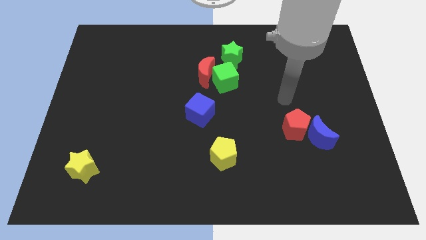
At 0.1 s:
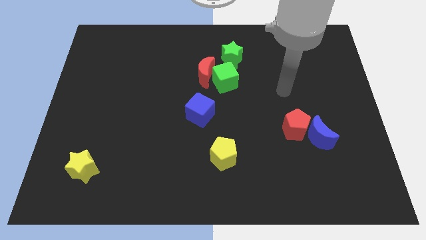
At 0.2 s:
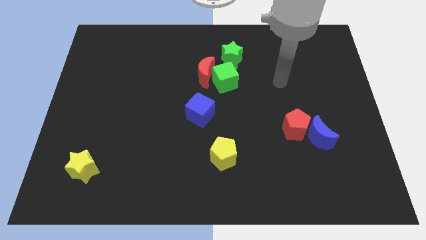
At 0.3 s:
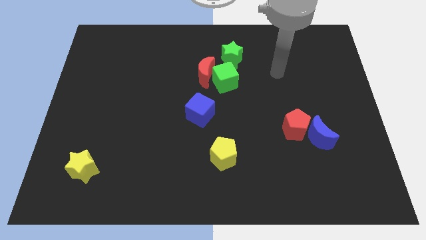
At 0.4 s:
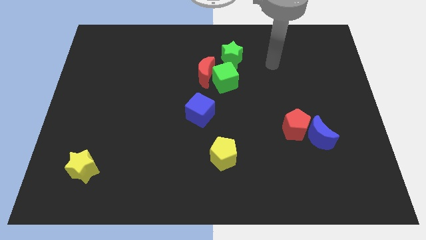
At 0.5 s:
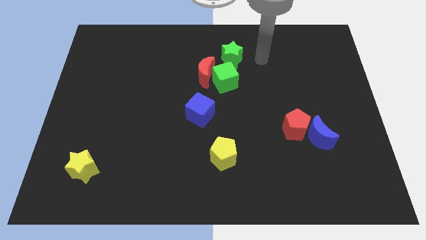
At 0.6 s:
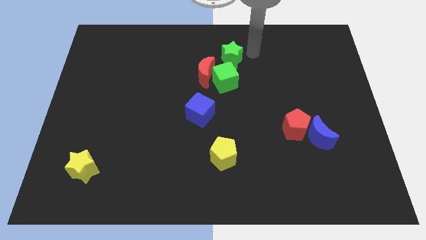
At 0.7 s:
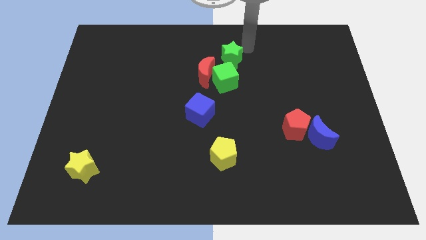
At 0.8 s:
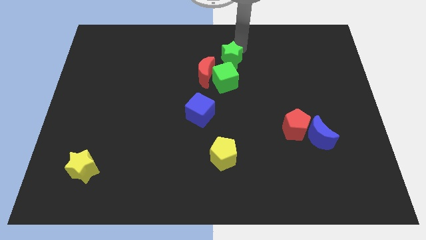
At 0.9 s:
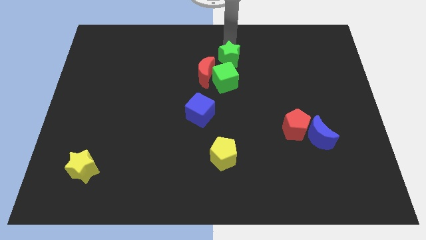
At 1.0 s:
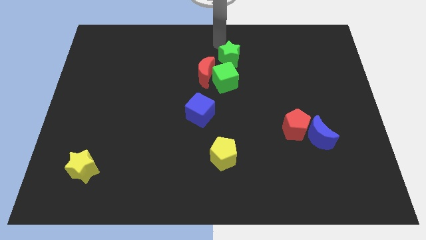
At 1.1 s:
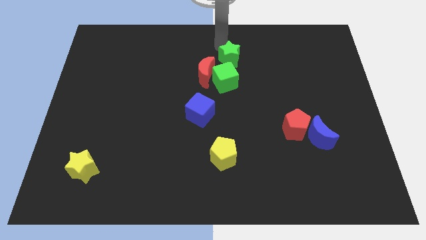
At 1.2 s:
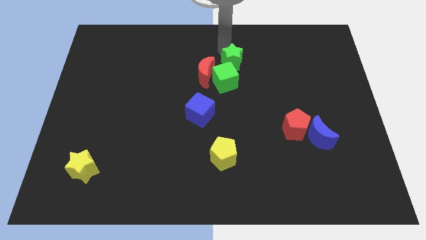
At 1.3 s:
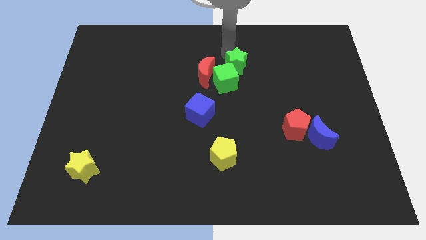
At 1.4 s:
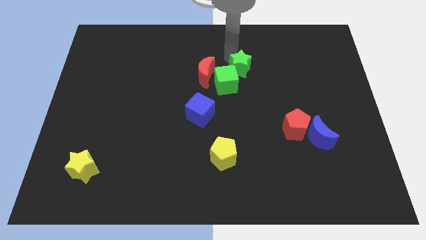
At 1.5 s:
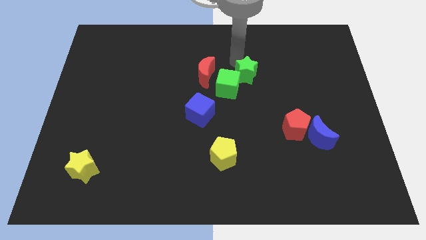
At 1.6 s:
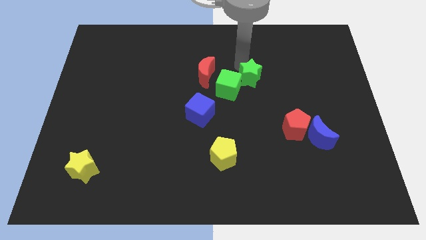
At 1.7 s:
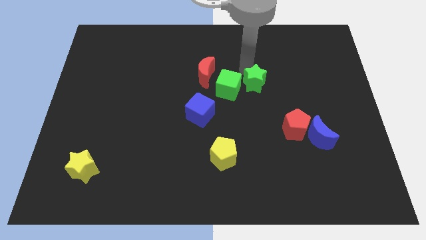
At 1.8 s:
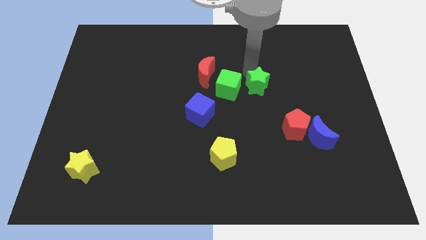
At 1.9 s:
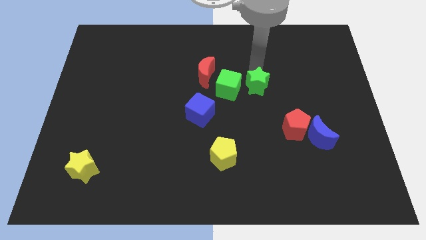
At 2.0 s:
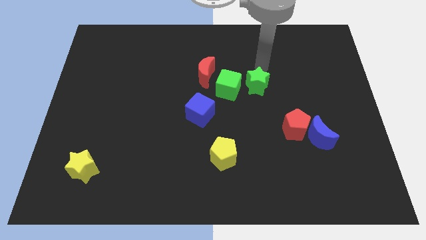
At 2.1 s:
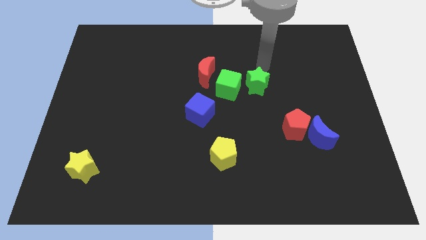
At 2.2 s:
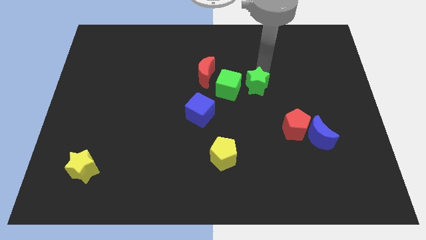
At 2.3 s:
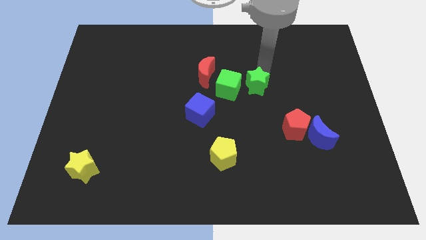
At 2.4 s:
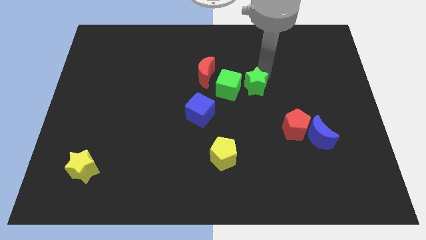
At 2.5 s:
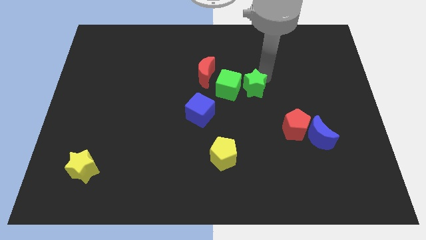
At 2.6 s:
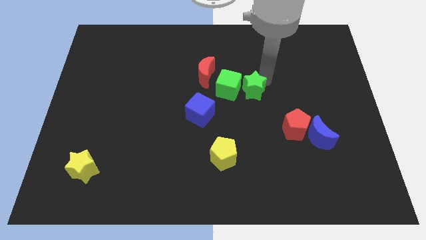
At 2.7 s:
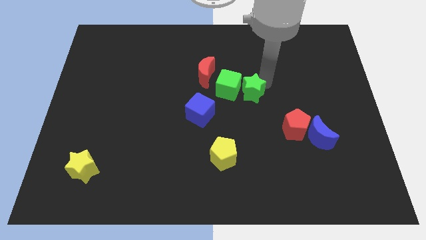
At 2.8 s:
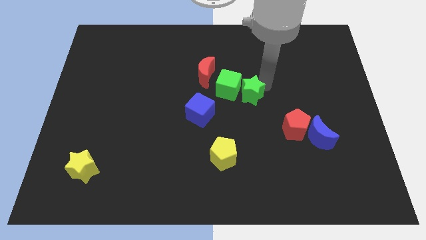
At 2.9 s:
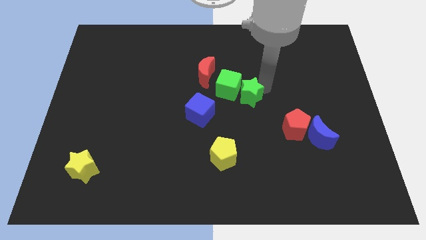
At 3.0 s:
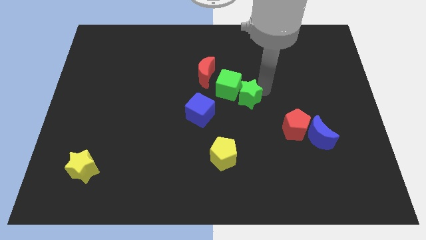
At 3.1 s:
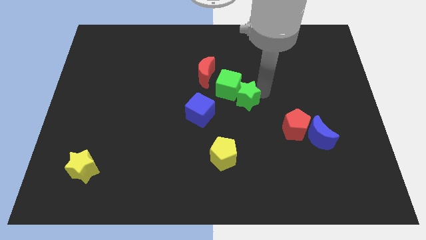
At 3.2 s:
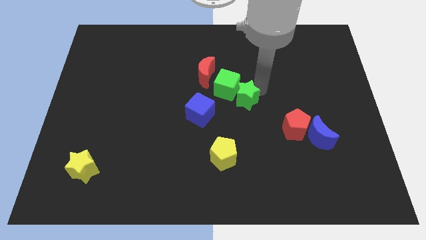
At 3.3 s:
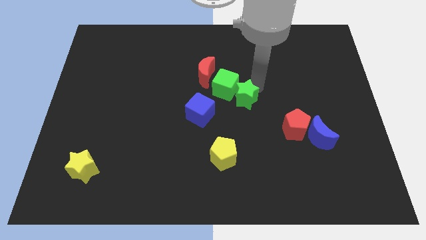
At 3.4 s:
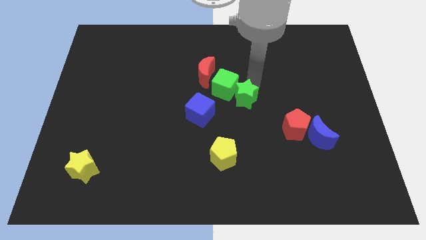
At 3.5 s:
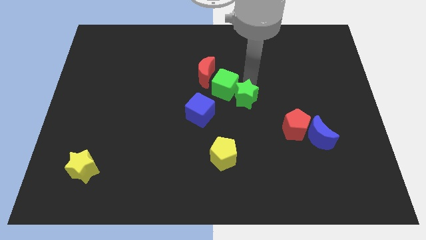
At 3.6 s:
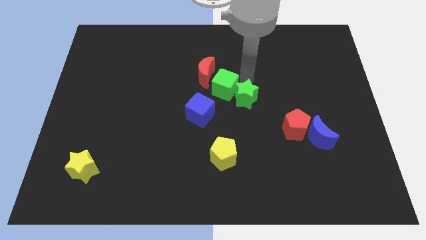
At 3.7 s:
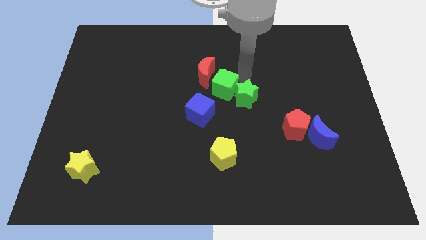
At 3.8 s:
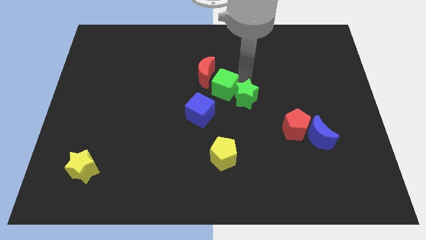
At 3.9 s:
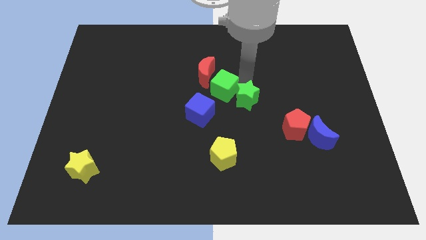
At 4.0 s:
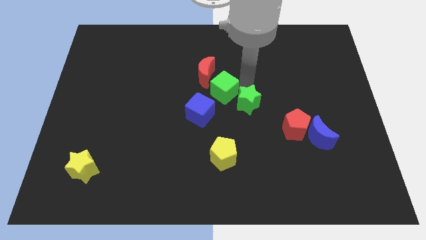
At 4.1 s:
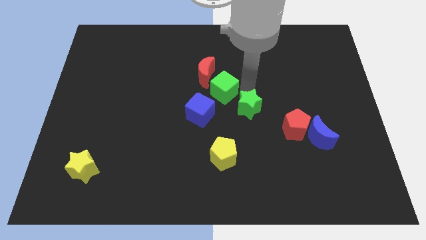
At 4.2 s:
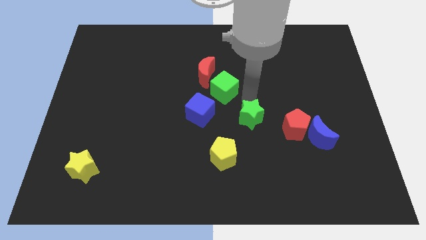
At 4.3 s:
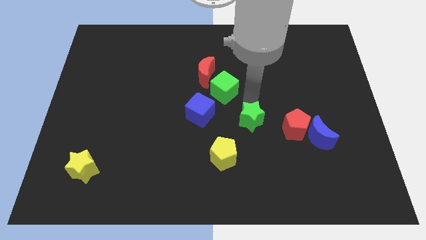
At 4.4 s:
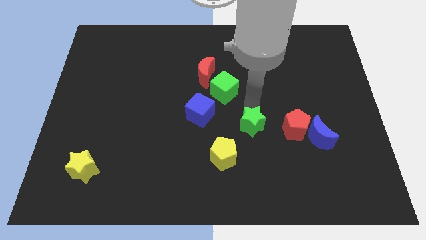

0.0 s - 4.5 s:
move the green star downwards

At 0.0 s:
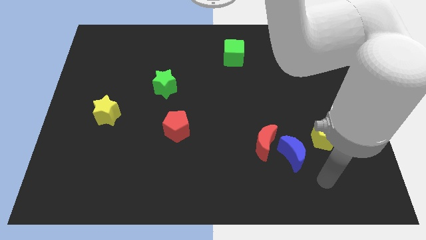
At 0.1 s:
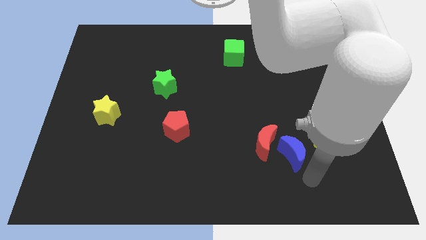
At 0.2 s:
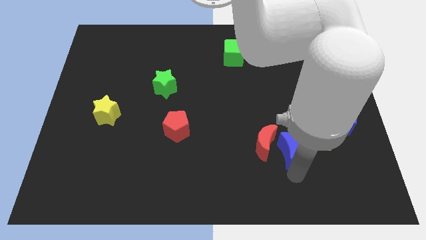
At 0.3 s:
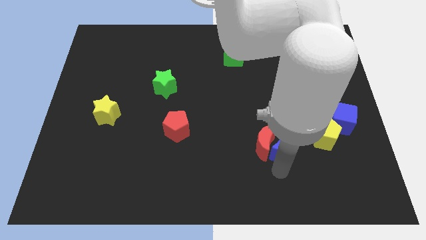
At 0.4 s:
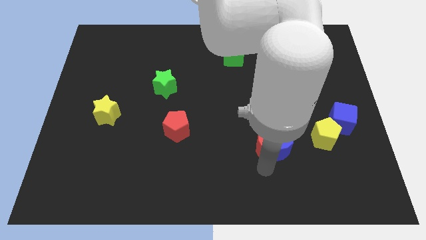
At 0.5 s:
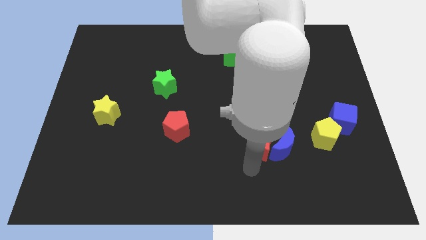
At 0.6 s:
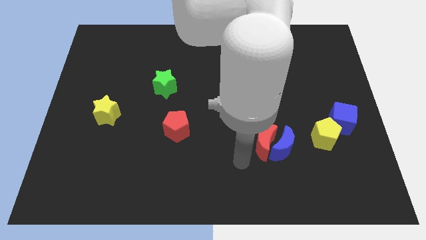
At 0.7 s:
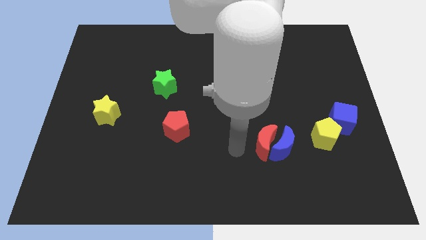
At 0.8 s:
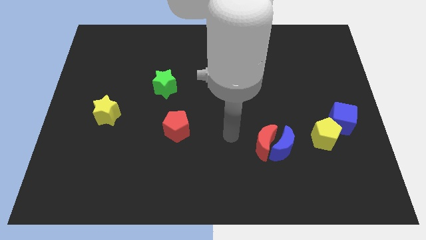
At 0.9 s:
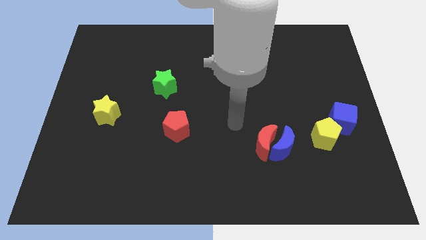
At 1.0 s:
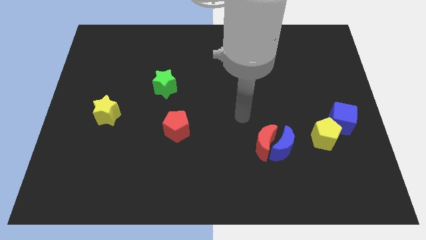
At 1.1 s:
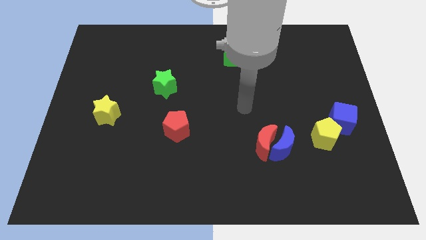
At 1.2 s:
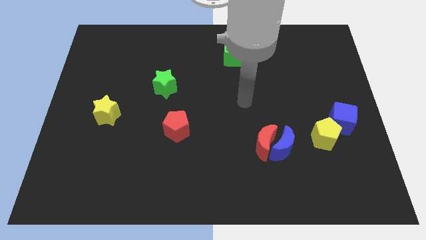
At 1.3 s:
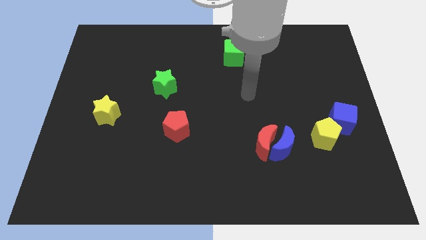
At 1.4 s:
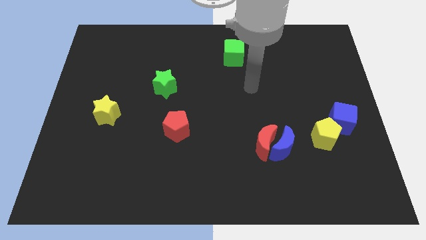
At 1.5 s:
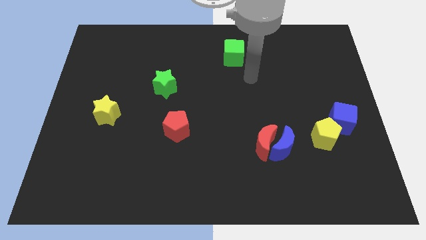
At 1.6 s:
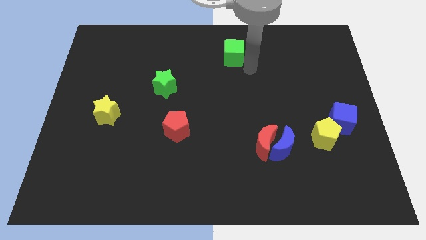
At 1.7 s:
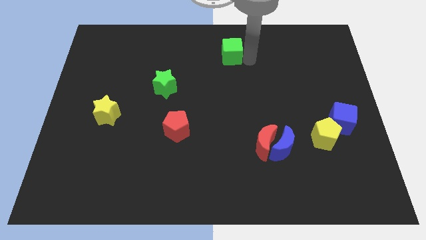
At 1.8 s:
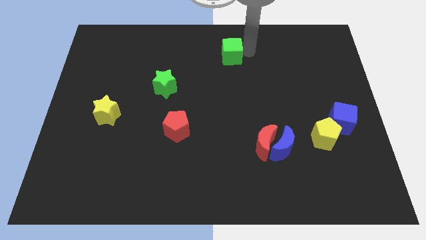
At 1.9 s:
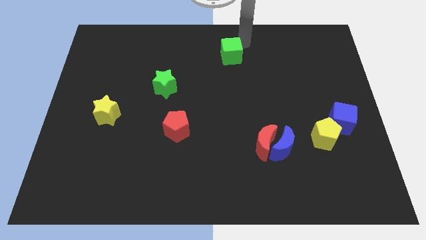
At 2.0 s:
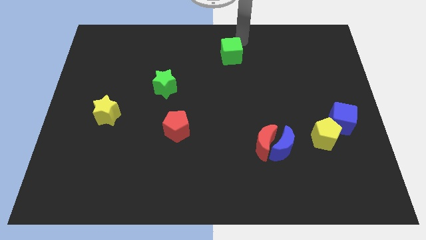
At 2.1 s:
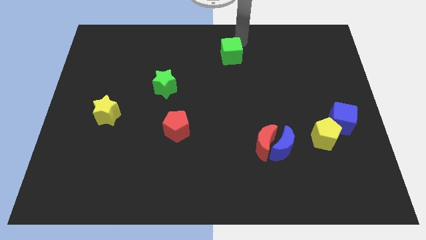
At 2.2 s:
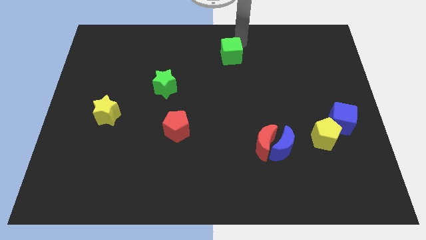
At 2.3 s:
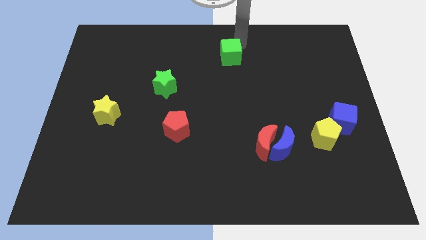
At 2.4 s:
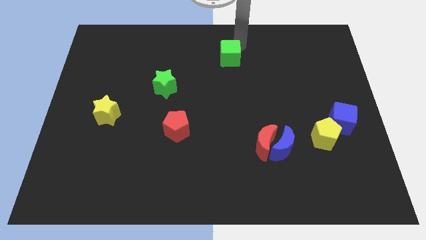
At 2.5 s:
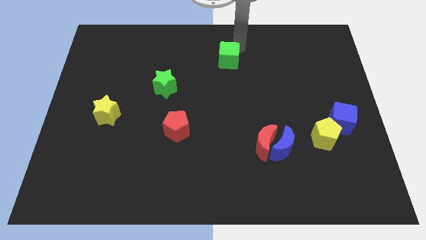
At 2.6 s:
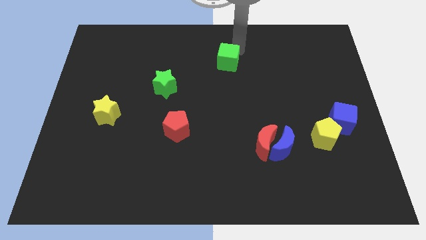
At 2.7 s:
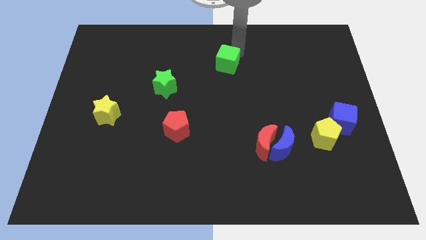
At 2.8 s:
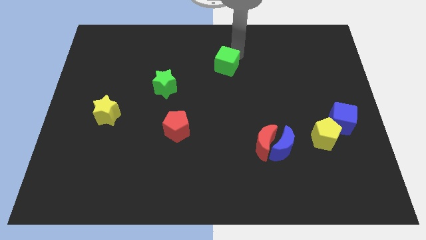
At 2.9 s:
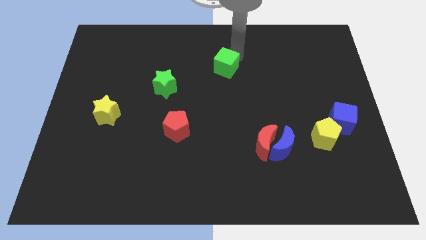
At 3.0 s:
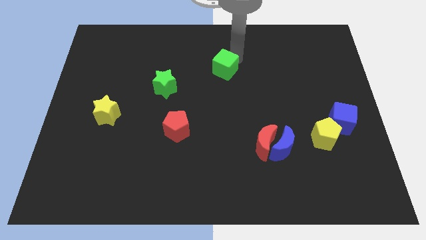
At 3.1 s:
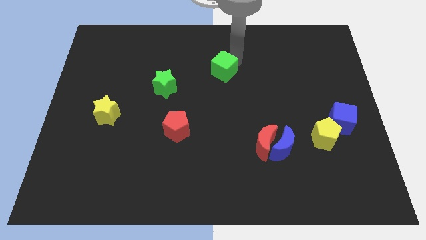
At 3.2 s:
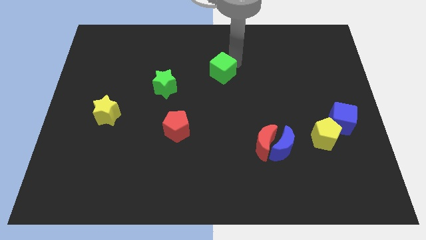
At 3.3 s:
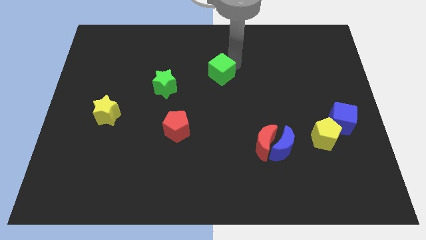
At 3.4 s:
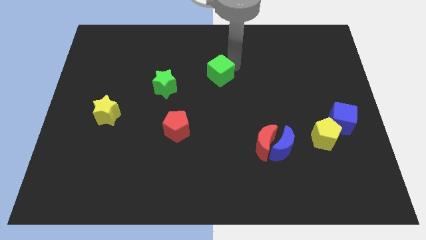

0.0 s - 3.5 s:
slide the green cube somewhat down and to the left

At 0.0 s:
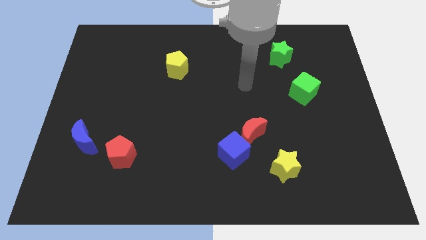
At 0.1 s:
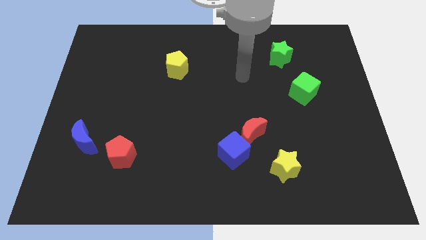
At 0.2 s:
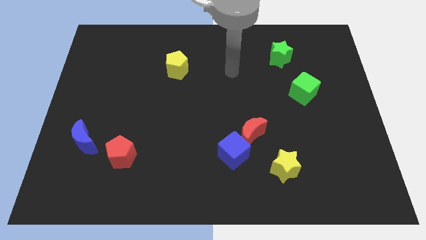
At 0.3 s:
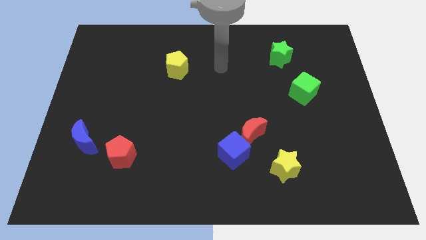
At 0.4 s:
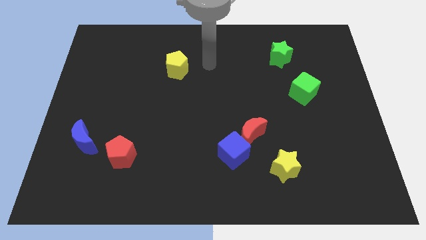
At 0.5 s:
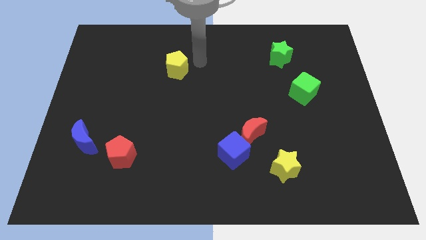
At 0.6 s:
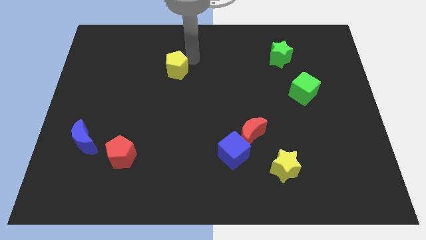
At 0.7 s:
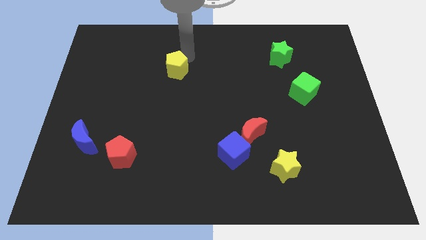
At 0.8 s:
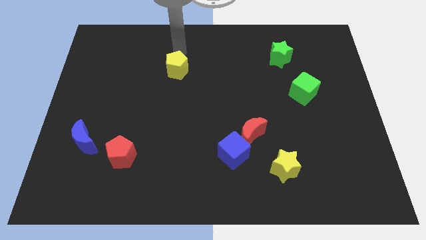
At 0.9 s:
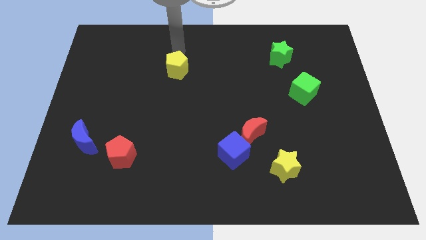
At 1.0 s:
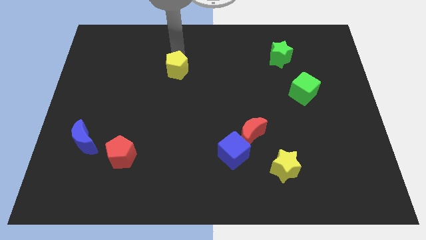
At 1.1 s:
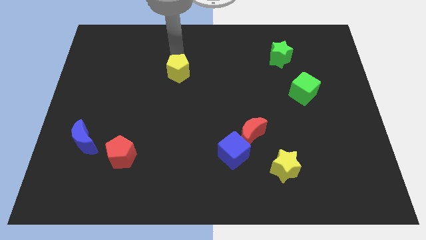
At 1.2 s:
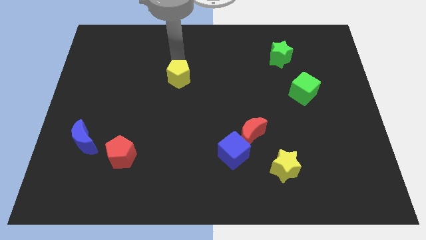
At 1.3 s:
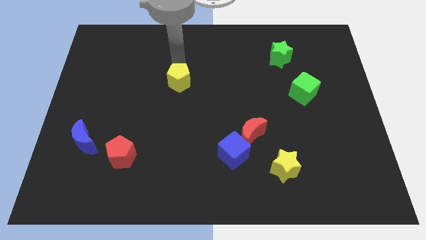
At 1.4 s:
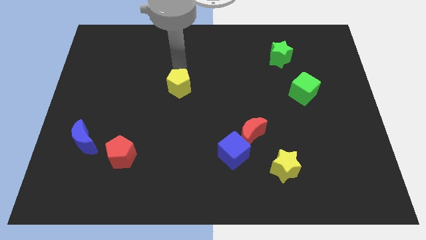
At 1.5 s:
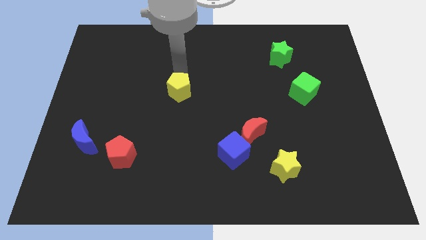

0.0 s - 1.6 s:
move the yellow pentagon a bit downwards
